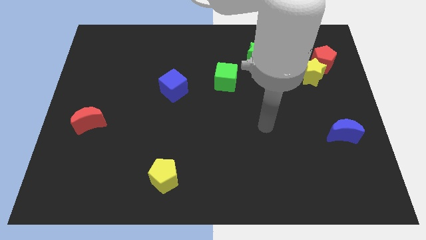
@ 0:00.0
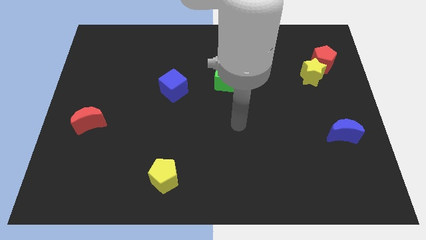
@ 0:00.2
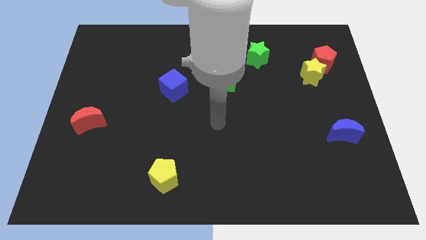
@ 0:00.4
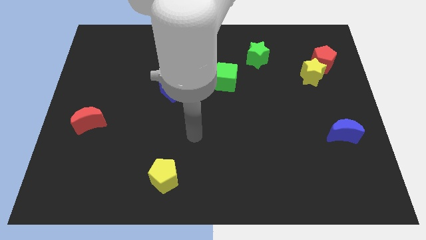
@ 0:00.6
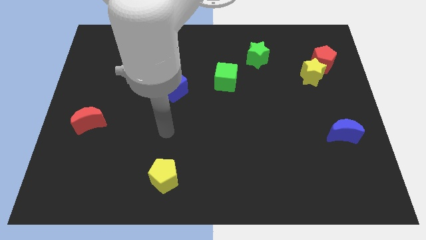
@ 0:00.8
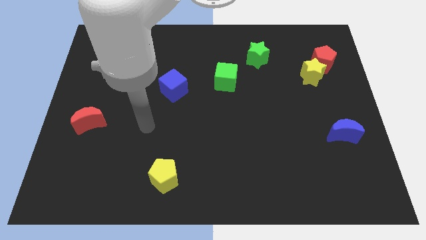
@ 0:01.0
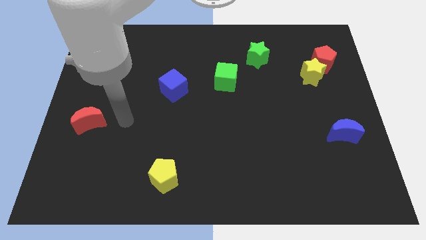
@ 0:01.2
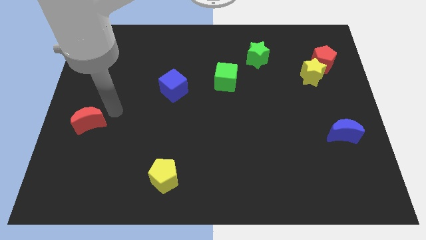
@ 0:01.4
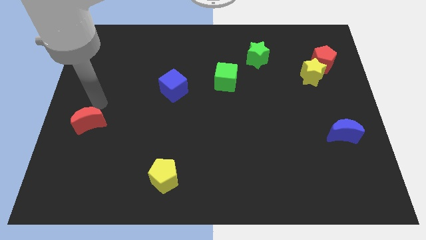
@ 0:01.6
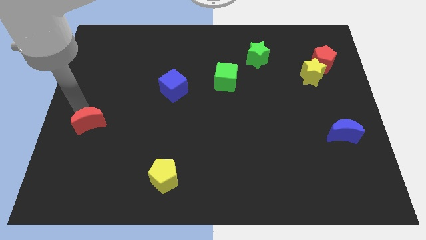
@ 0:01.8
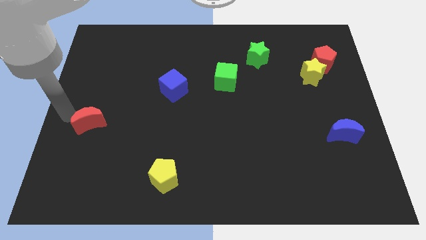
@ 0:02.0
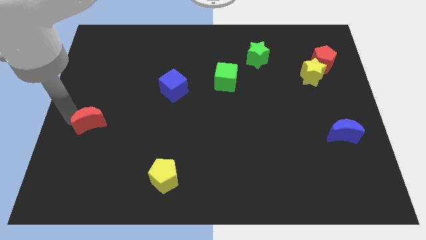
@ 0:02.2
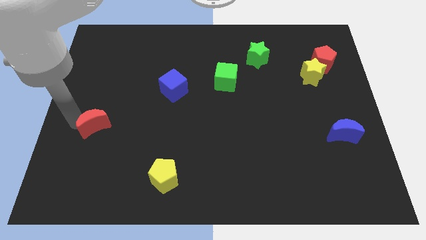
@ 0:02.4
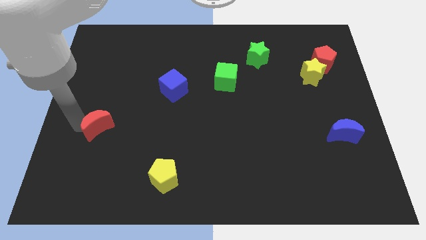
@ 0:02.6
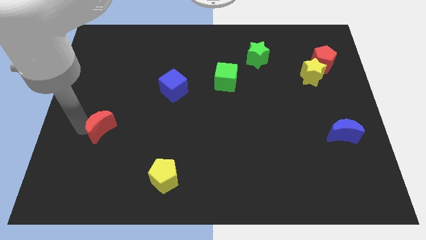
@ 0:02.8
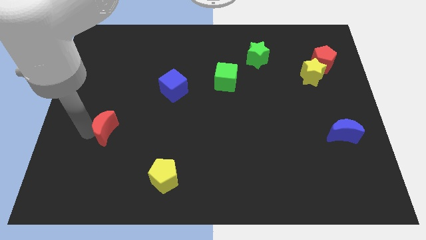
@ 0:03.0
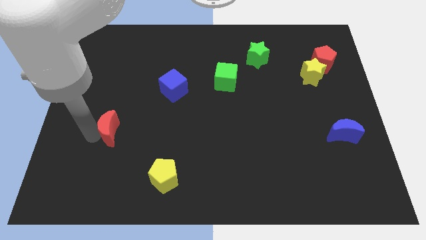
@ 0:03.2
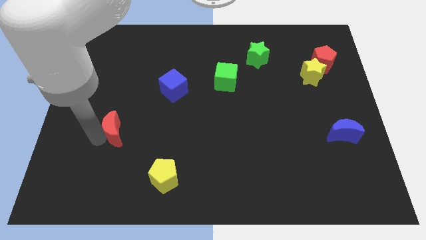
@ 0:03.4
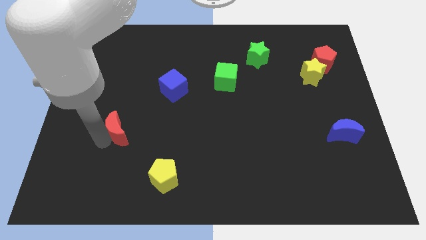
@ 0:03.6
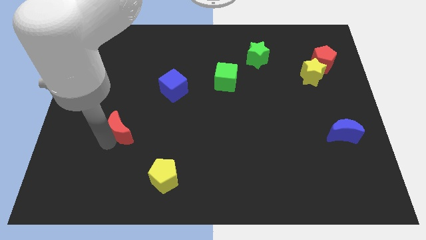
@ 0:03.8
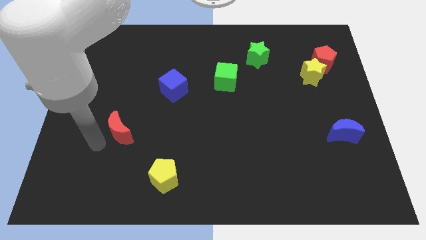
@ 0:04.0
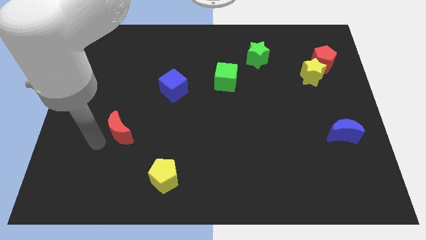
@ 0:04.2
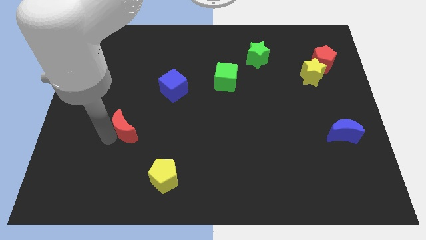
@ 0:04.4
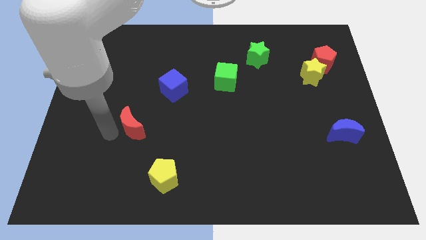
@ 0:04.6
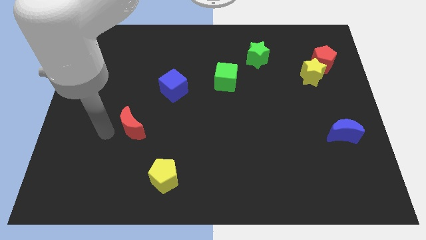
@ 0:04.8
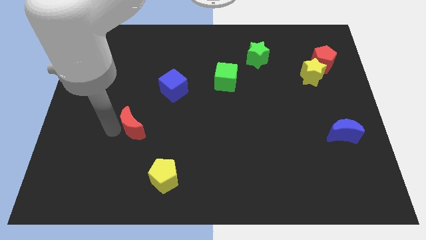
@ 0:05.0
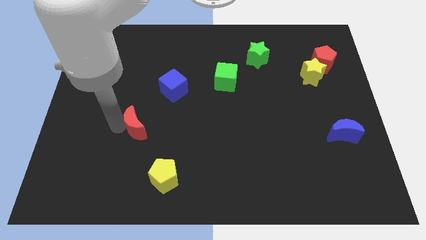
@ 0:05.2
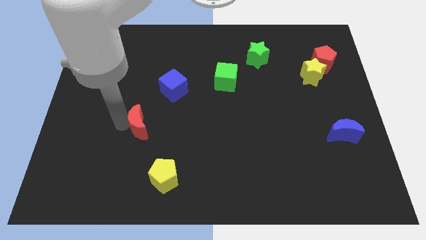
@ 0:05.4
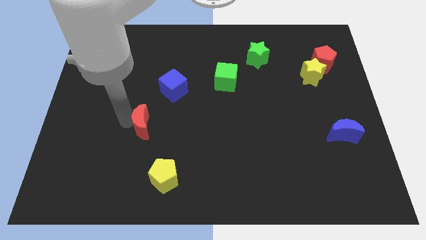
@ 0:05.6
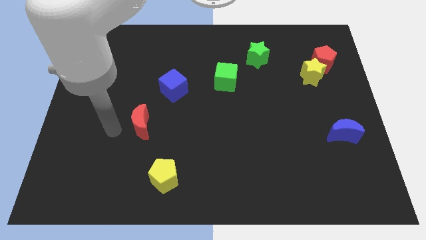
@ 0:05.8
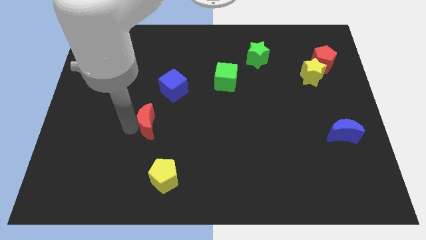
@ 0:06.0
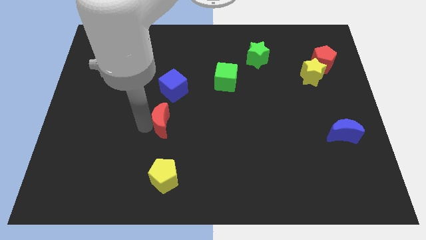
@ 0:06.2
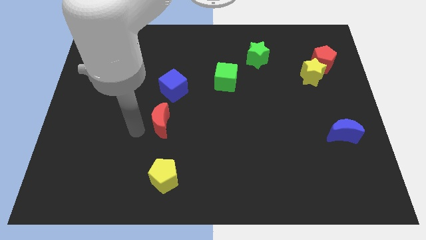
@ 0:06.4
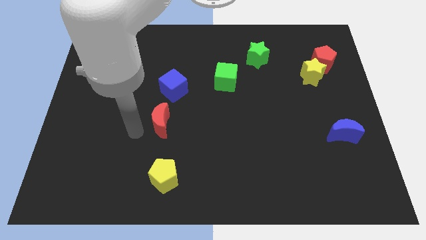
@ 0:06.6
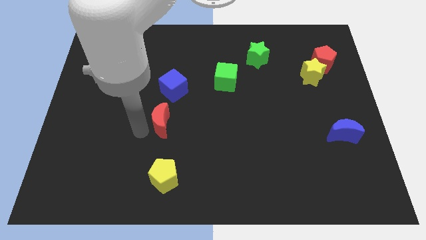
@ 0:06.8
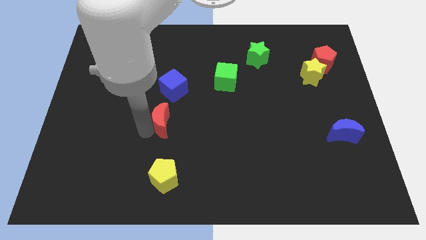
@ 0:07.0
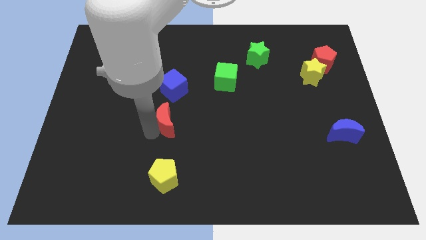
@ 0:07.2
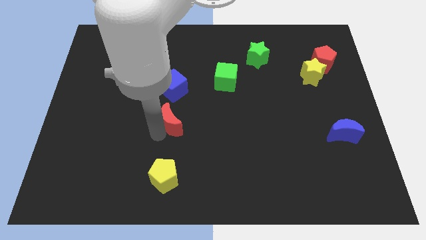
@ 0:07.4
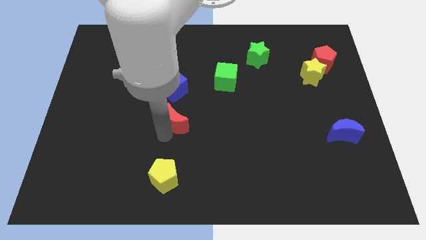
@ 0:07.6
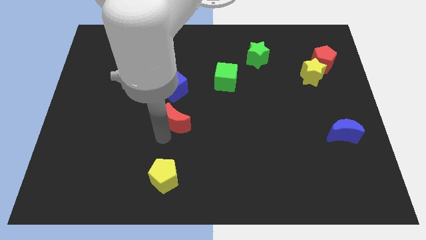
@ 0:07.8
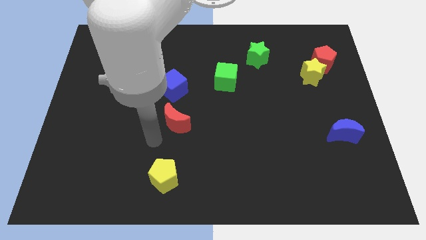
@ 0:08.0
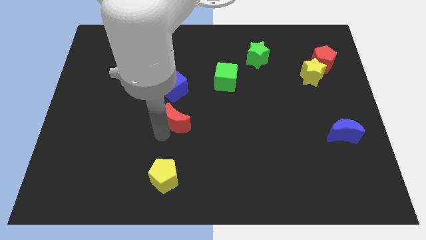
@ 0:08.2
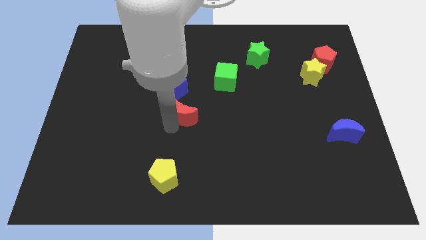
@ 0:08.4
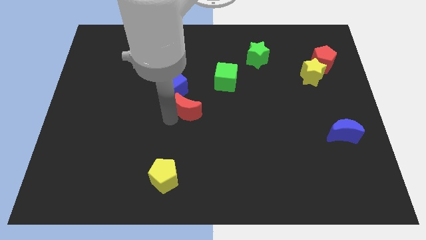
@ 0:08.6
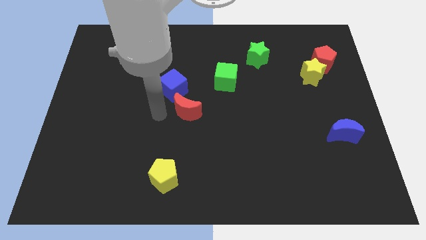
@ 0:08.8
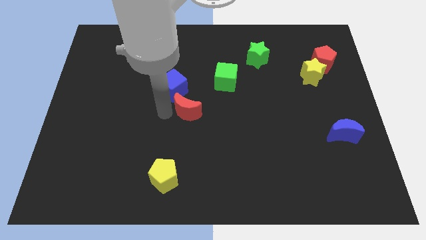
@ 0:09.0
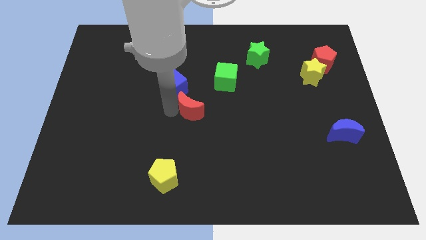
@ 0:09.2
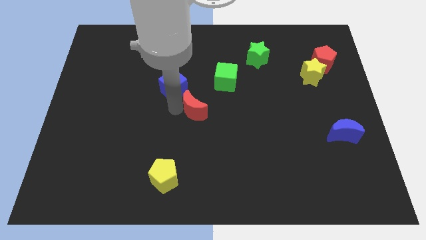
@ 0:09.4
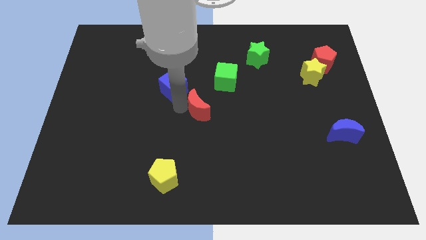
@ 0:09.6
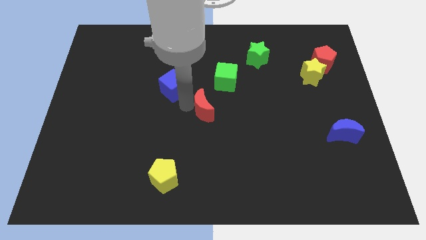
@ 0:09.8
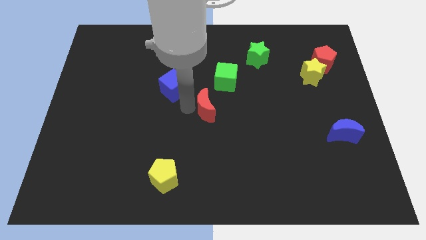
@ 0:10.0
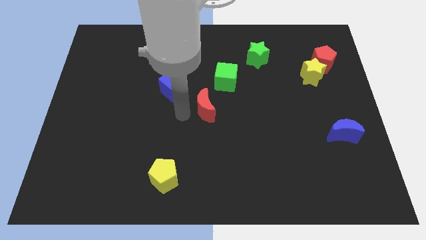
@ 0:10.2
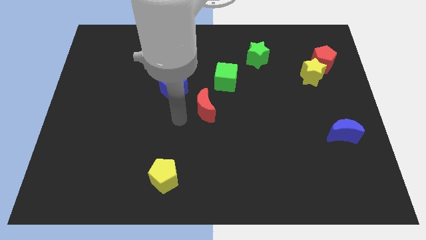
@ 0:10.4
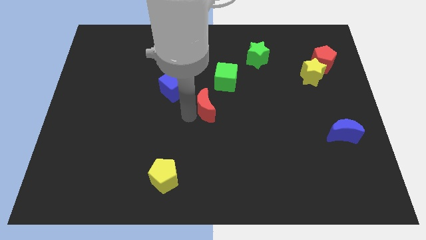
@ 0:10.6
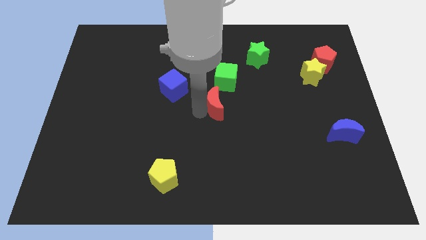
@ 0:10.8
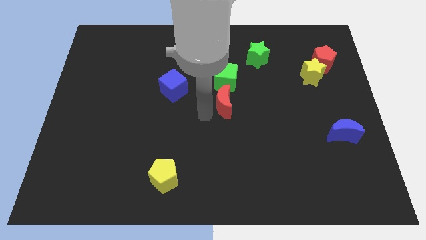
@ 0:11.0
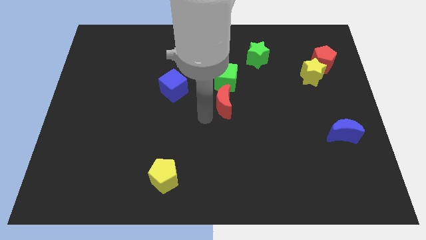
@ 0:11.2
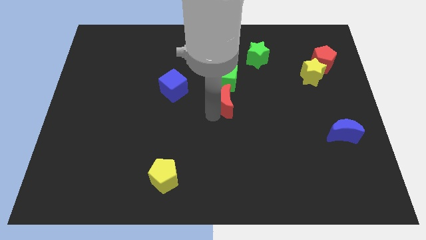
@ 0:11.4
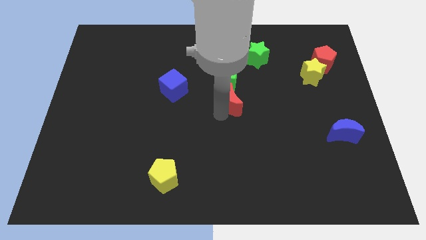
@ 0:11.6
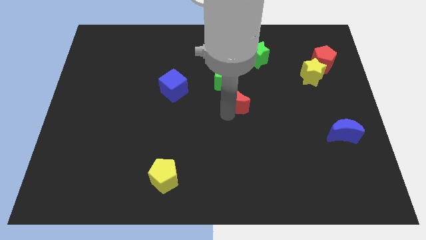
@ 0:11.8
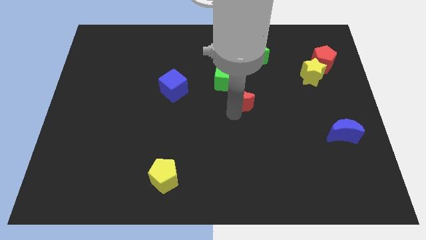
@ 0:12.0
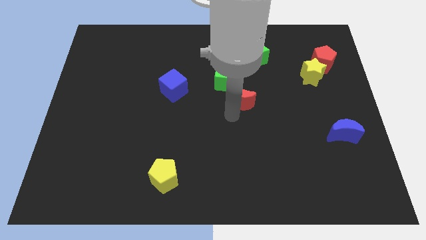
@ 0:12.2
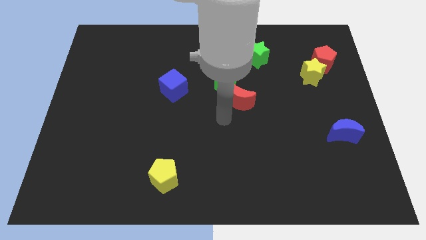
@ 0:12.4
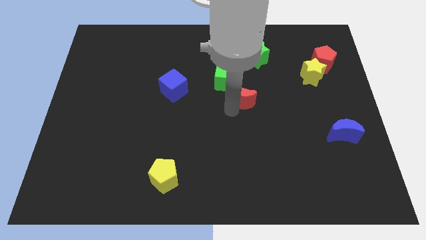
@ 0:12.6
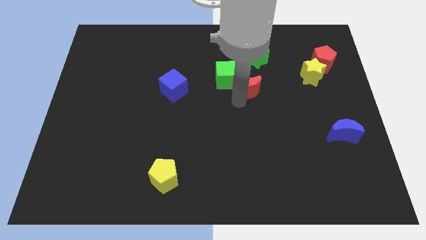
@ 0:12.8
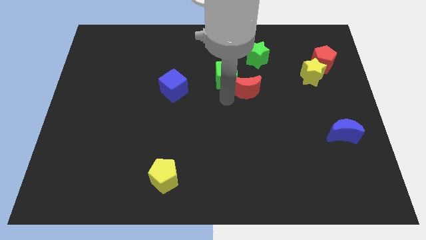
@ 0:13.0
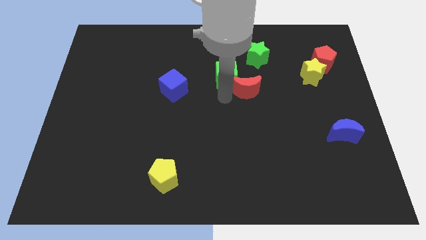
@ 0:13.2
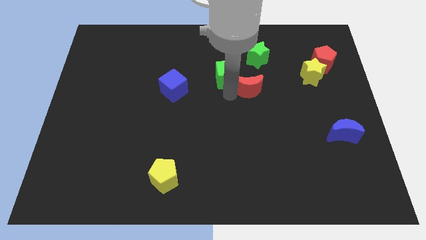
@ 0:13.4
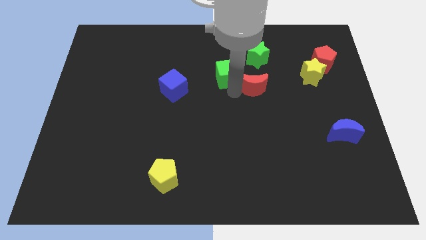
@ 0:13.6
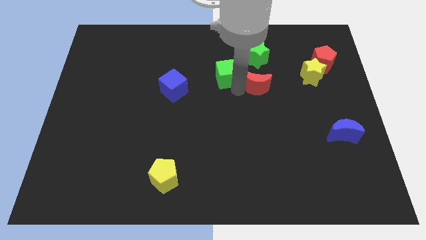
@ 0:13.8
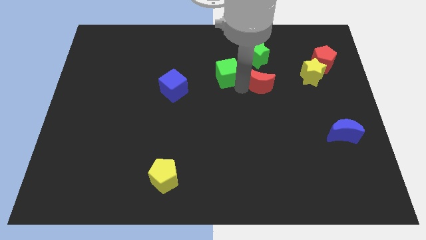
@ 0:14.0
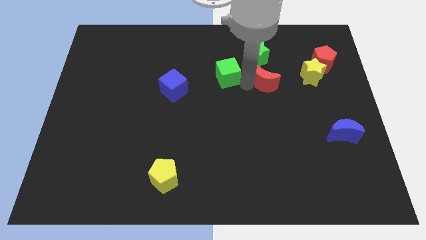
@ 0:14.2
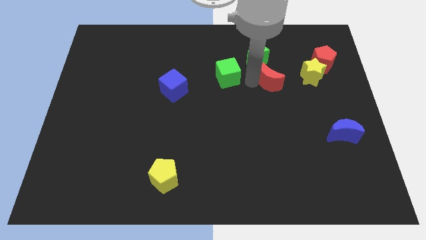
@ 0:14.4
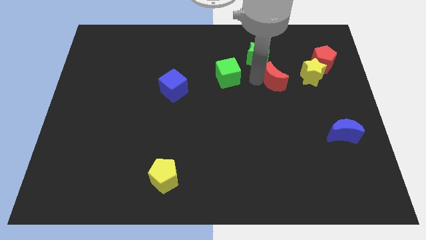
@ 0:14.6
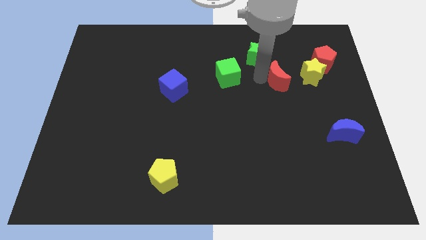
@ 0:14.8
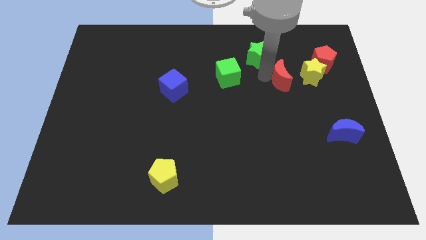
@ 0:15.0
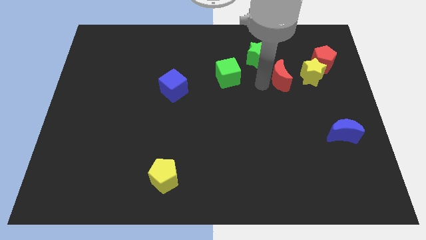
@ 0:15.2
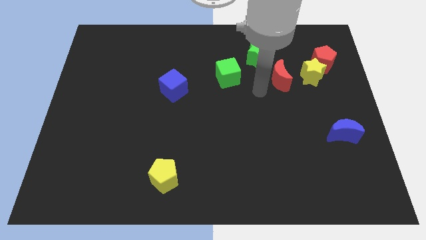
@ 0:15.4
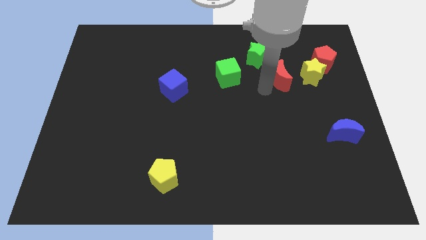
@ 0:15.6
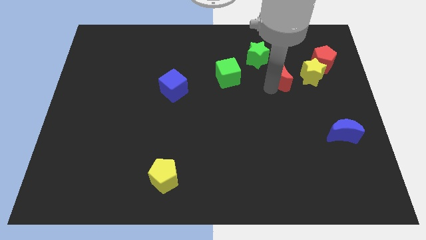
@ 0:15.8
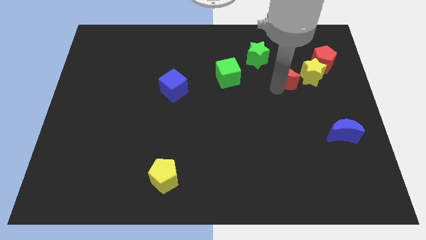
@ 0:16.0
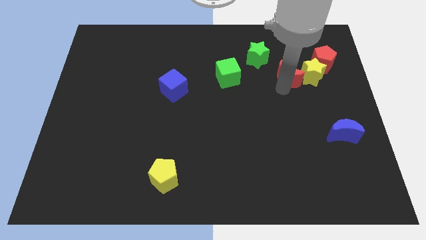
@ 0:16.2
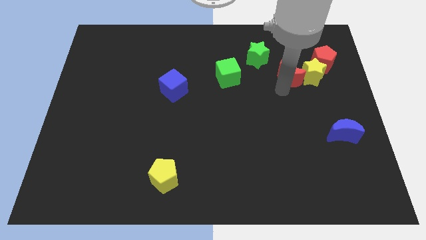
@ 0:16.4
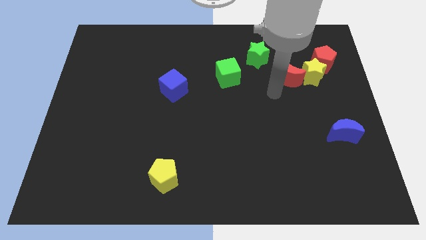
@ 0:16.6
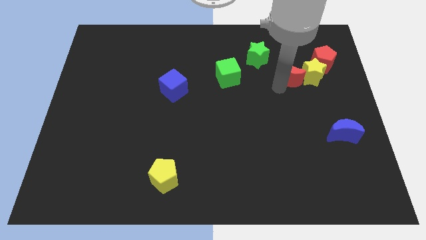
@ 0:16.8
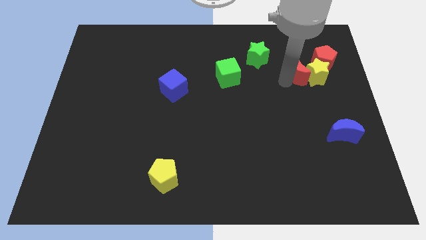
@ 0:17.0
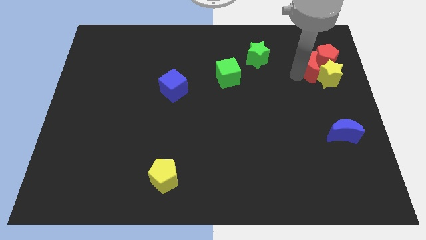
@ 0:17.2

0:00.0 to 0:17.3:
move the red moon close to the red pentagon
